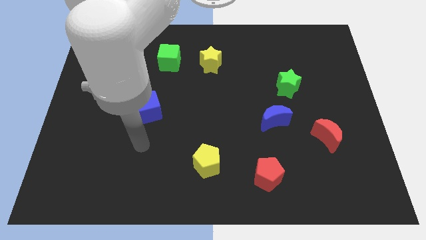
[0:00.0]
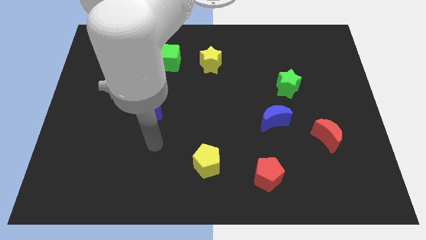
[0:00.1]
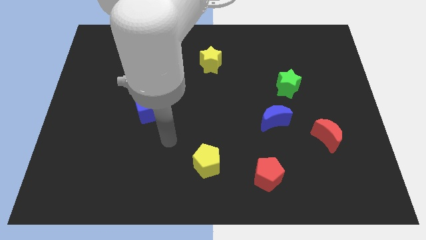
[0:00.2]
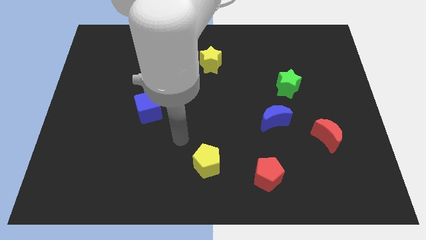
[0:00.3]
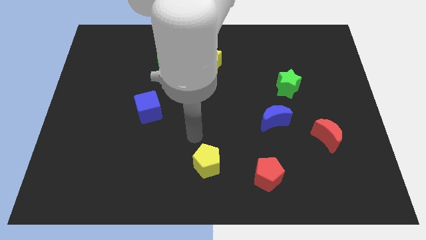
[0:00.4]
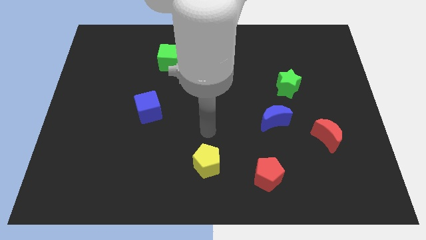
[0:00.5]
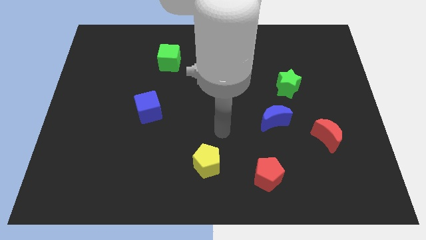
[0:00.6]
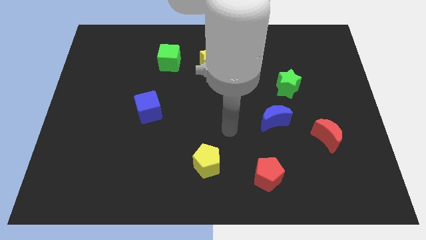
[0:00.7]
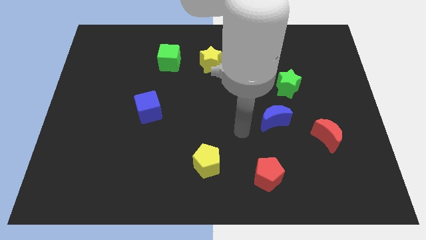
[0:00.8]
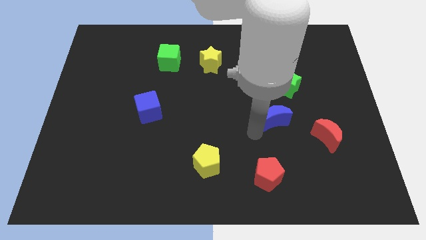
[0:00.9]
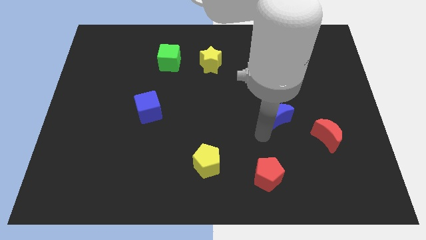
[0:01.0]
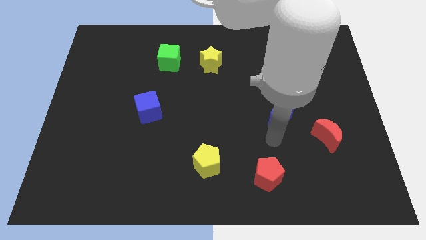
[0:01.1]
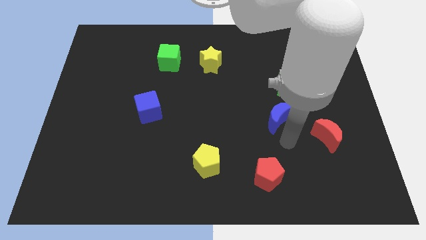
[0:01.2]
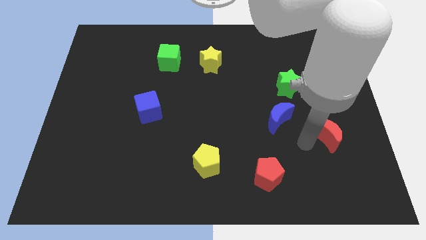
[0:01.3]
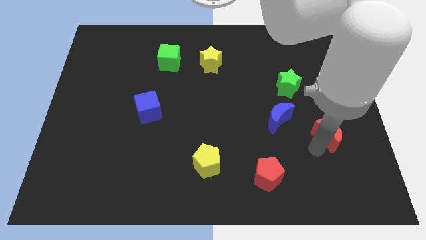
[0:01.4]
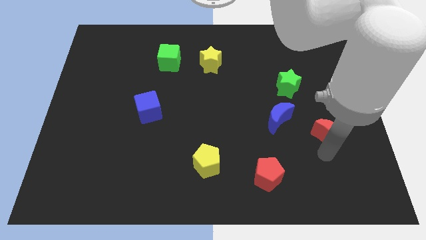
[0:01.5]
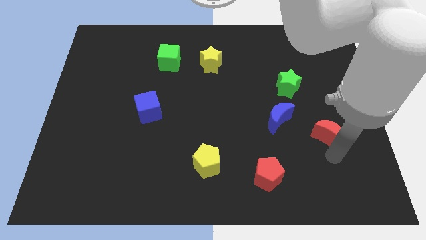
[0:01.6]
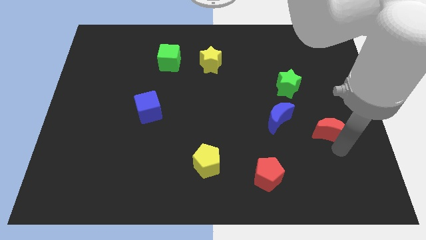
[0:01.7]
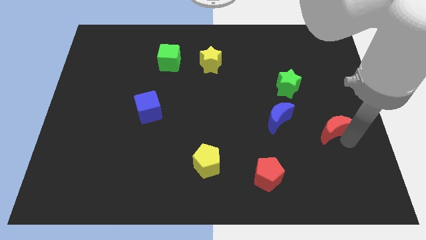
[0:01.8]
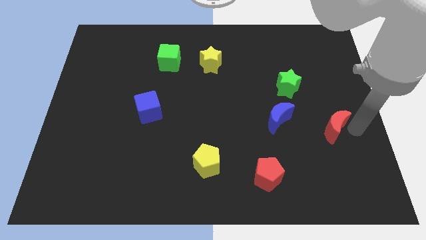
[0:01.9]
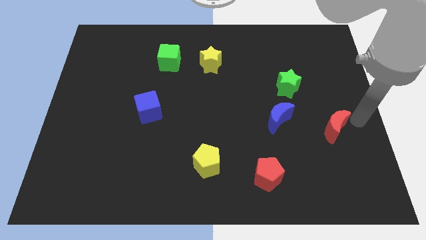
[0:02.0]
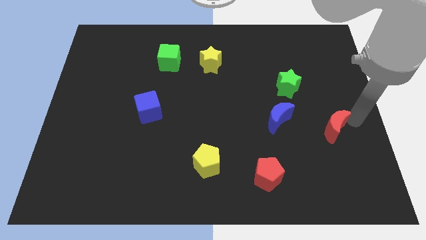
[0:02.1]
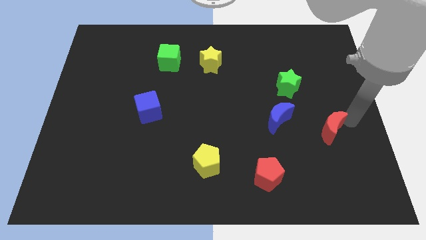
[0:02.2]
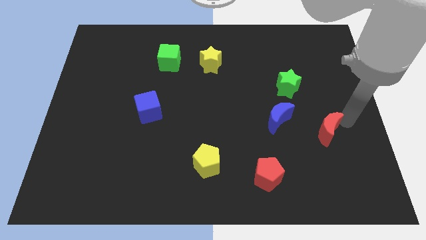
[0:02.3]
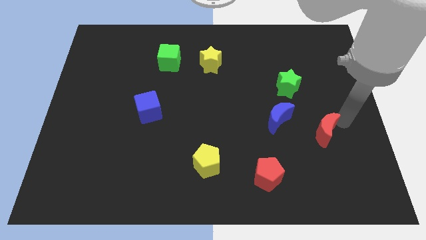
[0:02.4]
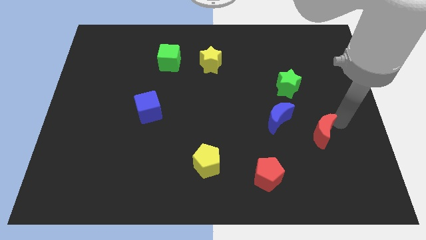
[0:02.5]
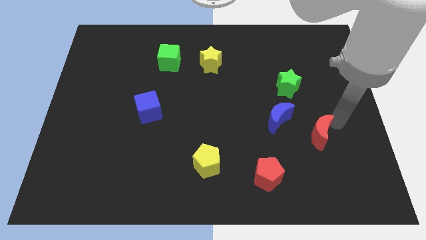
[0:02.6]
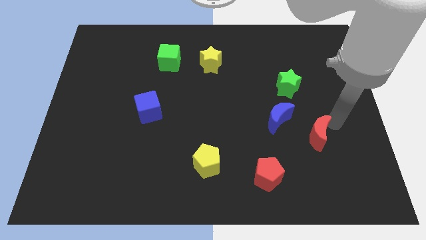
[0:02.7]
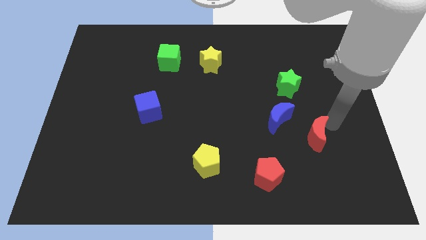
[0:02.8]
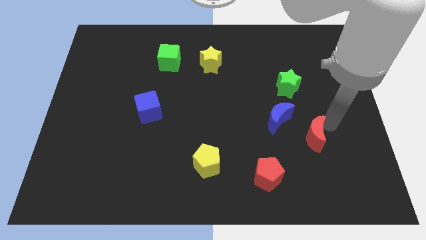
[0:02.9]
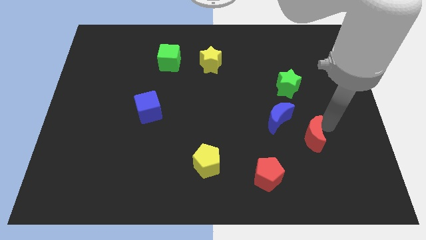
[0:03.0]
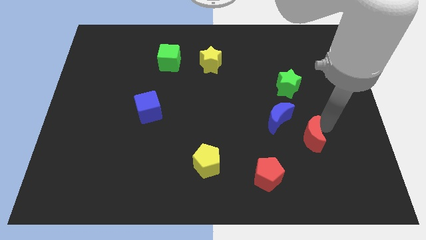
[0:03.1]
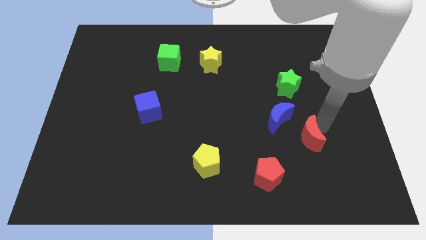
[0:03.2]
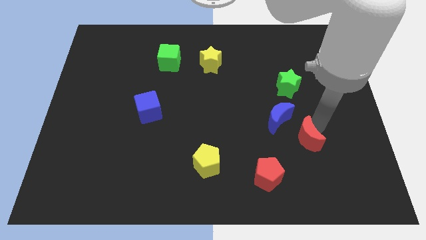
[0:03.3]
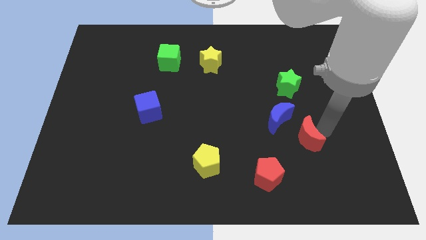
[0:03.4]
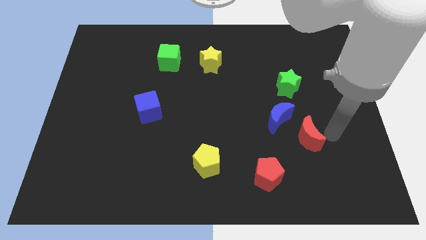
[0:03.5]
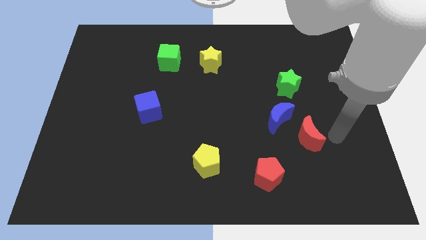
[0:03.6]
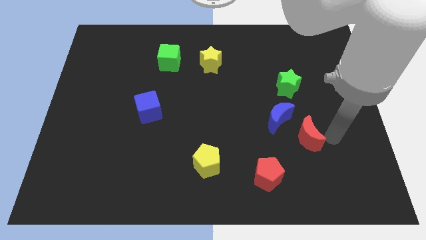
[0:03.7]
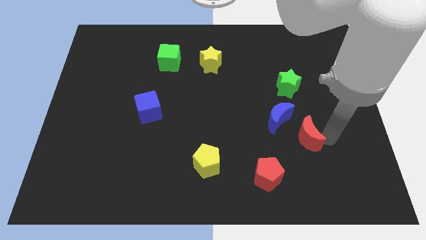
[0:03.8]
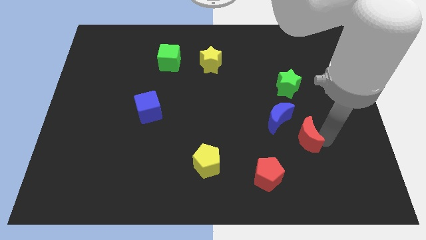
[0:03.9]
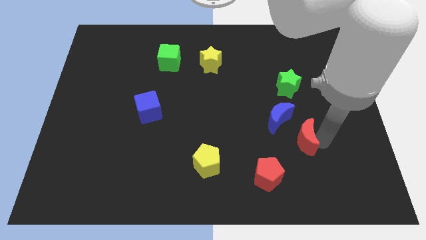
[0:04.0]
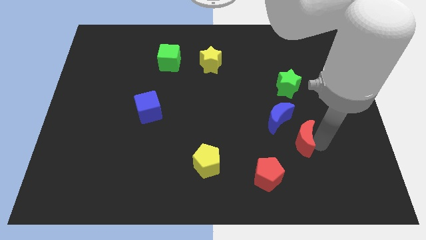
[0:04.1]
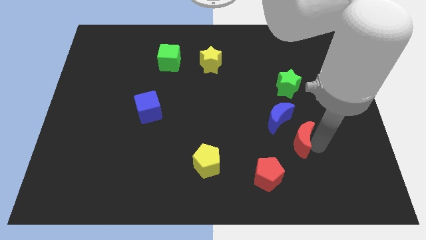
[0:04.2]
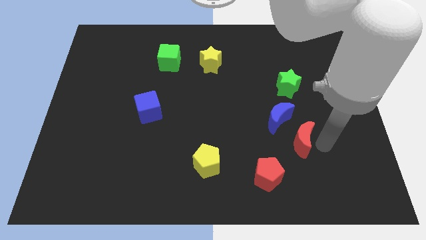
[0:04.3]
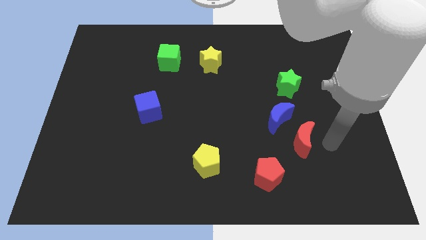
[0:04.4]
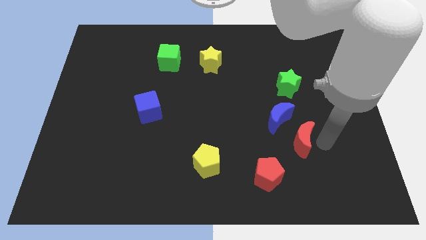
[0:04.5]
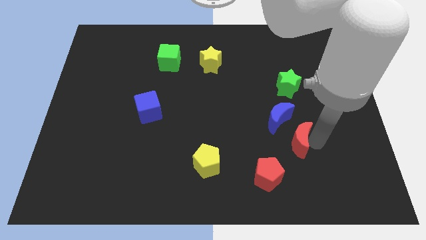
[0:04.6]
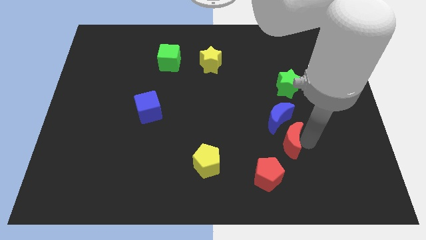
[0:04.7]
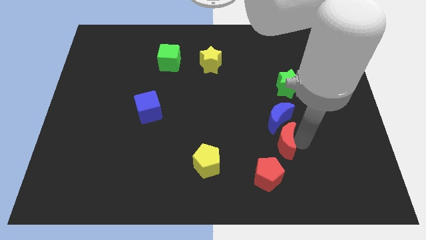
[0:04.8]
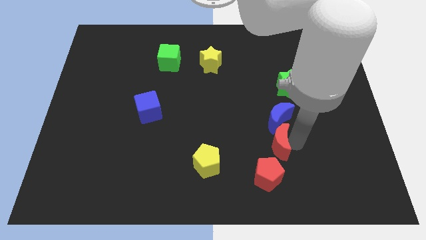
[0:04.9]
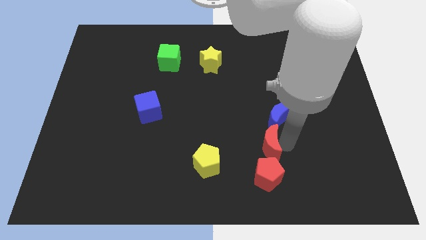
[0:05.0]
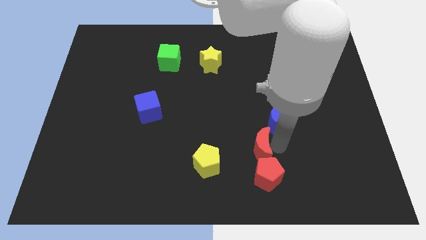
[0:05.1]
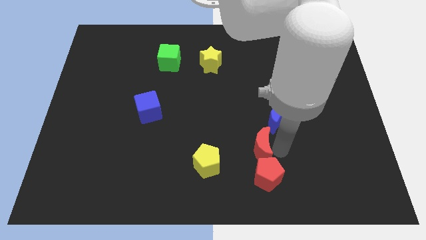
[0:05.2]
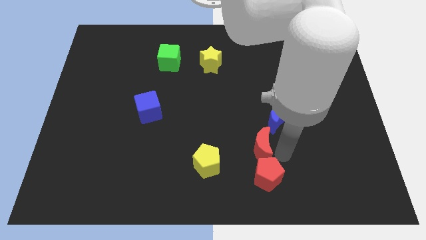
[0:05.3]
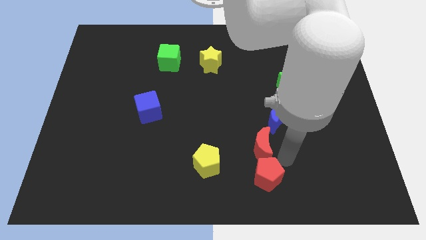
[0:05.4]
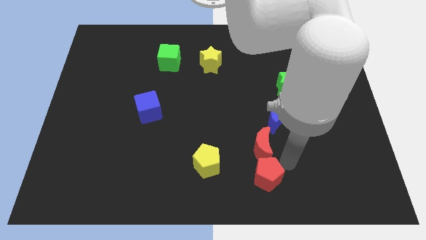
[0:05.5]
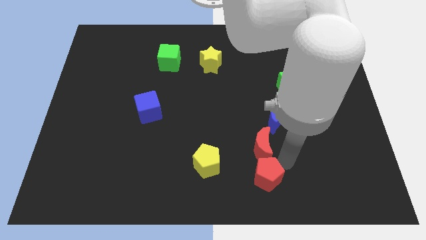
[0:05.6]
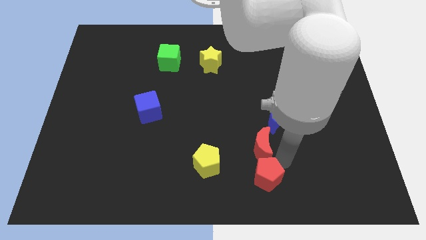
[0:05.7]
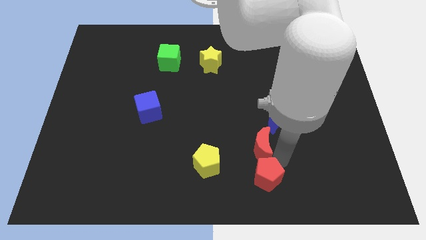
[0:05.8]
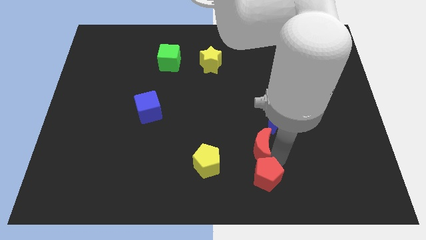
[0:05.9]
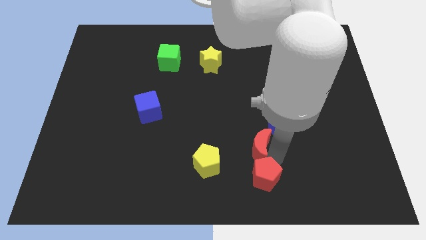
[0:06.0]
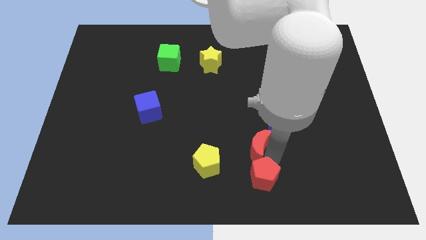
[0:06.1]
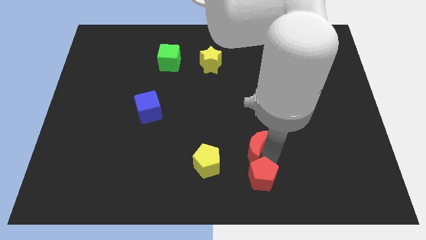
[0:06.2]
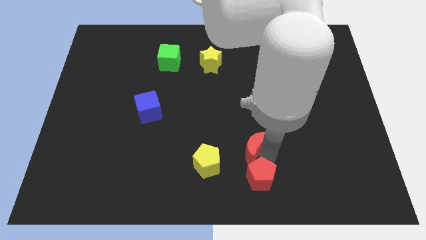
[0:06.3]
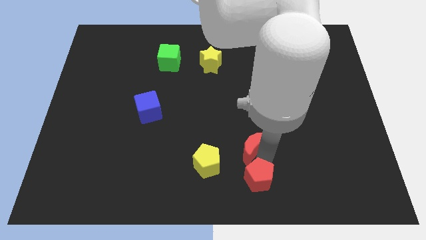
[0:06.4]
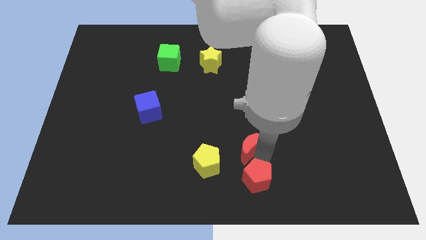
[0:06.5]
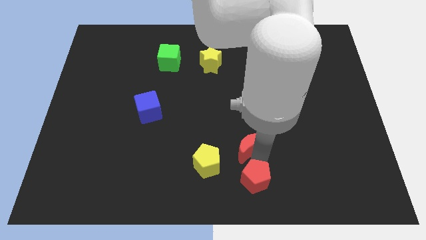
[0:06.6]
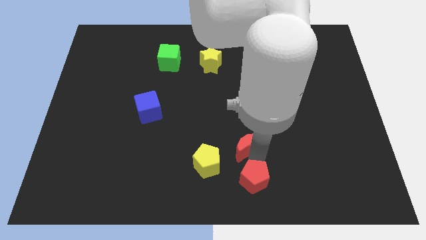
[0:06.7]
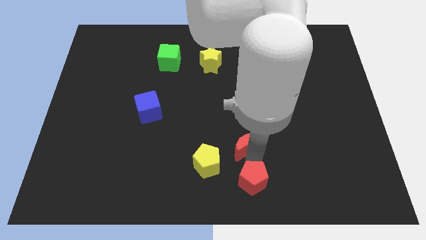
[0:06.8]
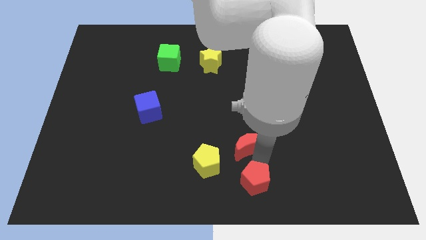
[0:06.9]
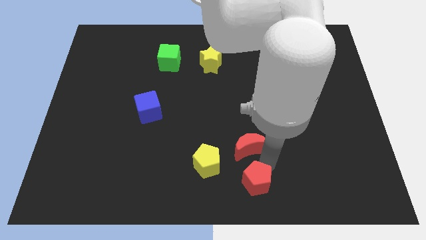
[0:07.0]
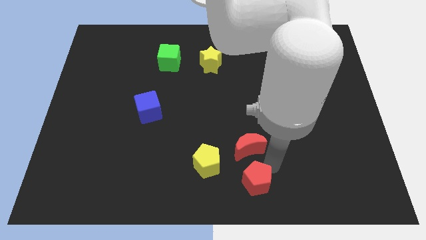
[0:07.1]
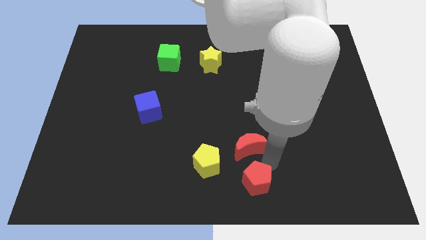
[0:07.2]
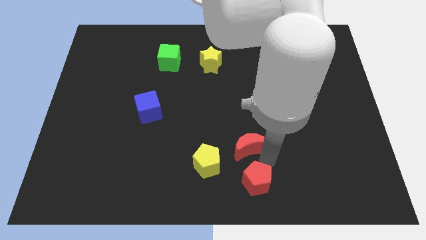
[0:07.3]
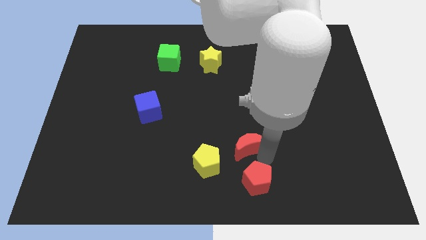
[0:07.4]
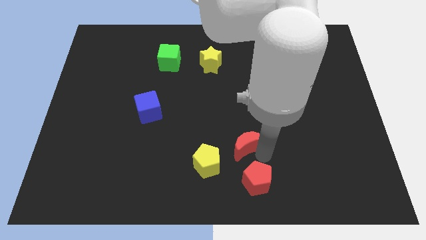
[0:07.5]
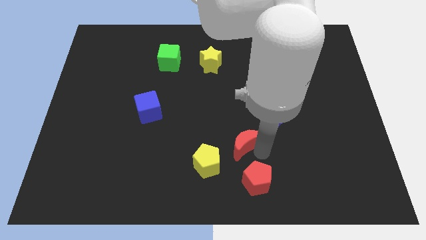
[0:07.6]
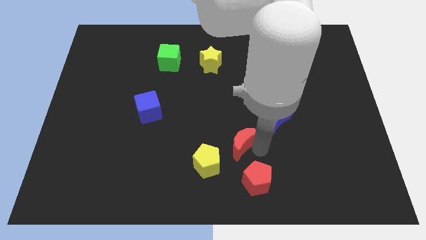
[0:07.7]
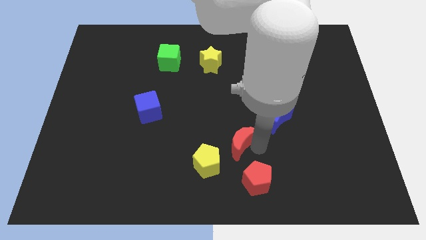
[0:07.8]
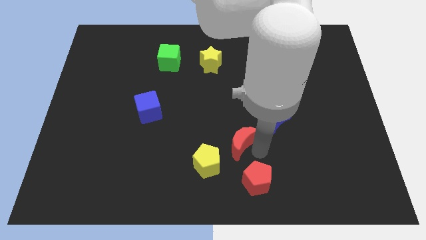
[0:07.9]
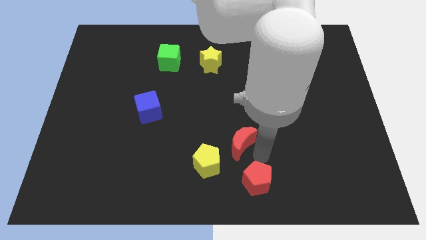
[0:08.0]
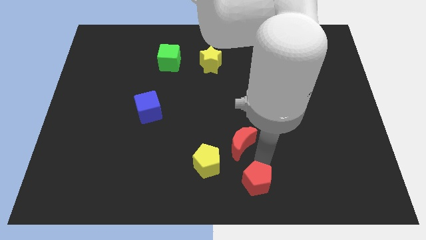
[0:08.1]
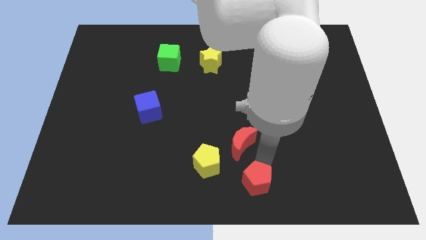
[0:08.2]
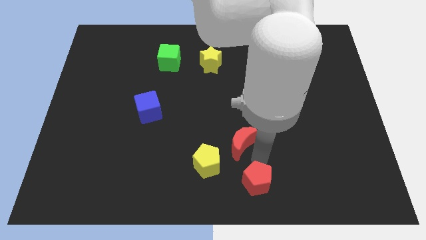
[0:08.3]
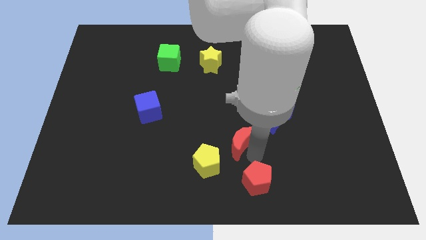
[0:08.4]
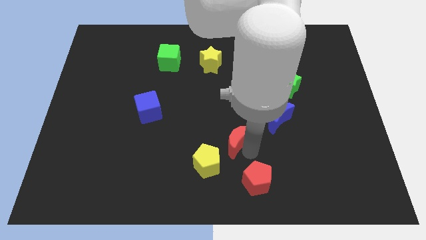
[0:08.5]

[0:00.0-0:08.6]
slide the red moon to the left
